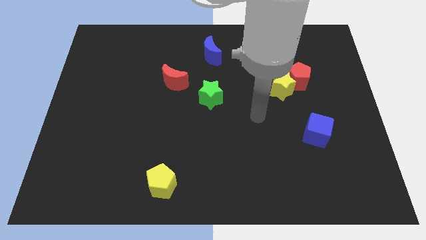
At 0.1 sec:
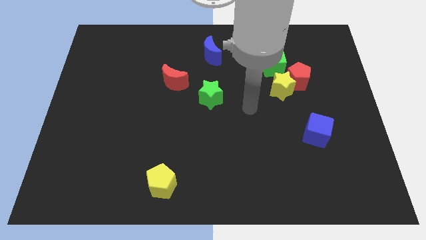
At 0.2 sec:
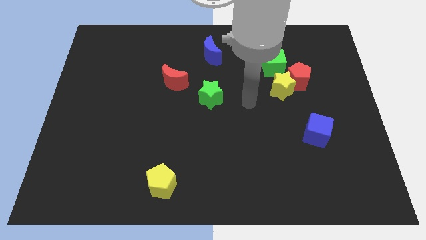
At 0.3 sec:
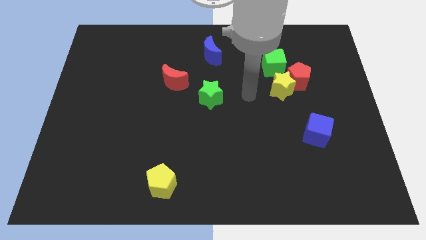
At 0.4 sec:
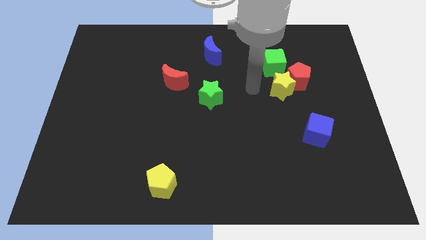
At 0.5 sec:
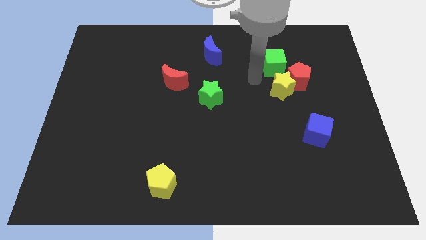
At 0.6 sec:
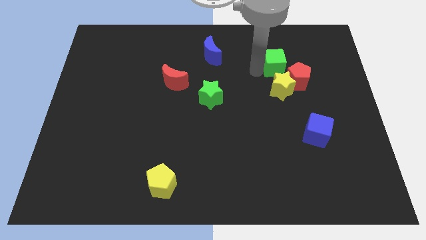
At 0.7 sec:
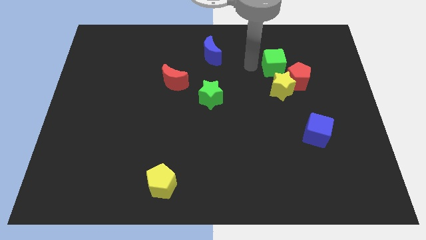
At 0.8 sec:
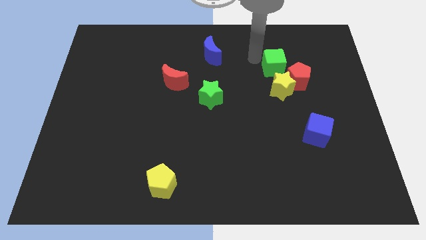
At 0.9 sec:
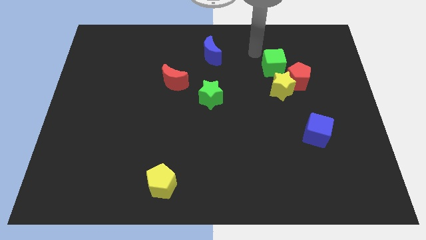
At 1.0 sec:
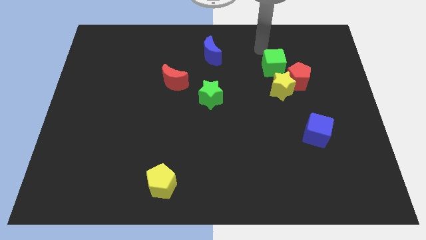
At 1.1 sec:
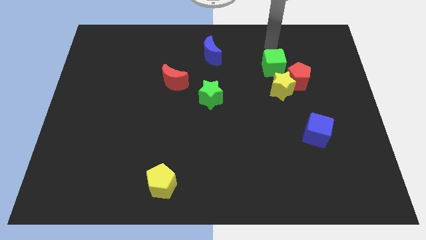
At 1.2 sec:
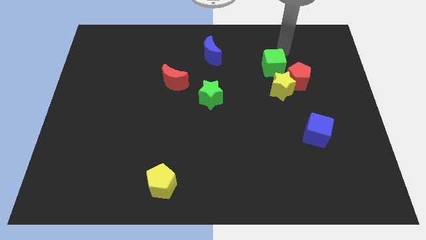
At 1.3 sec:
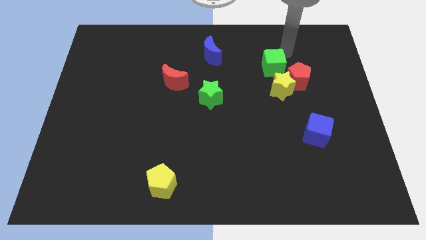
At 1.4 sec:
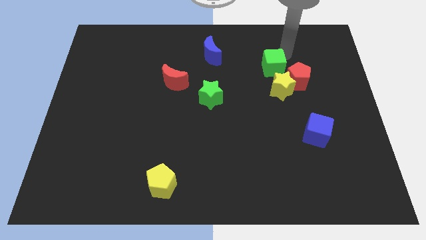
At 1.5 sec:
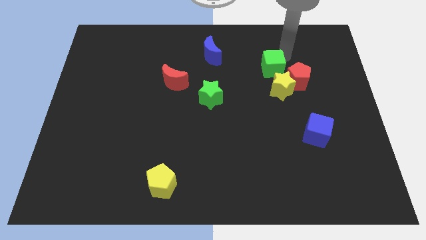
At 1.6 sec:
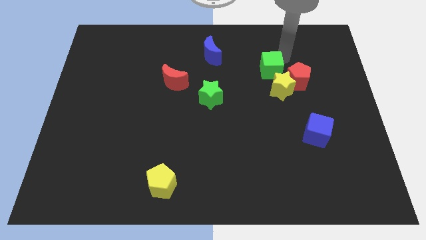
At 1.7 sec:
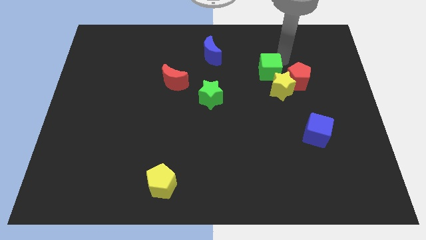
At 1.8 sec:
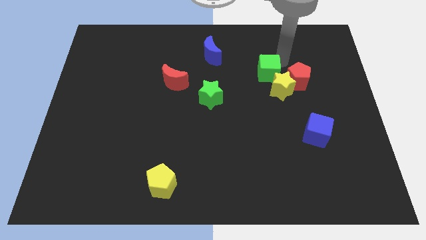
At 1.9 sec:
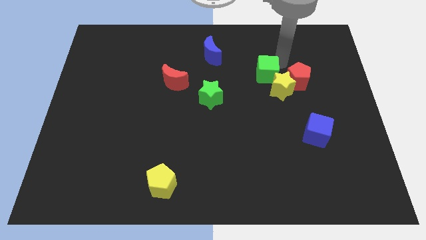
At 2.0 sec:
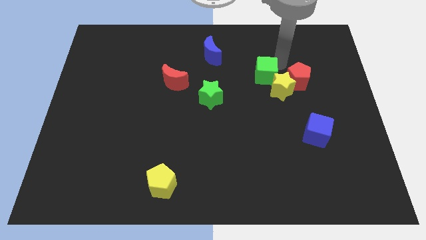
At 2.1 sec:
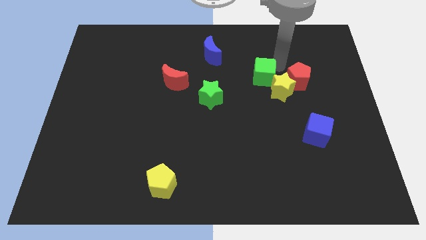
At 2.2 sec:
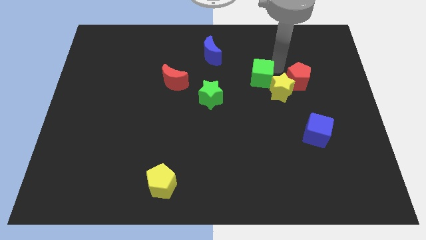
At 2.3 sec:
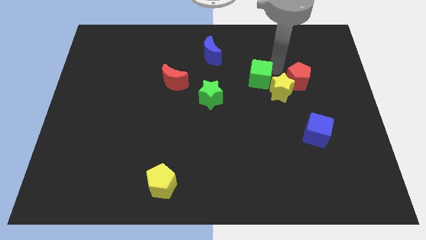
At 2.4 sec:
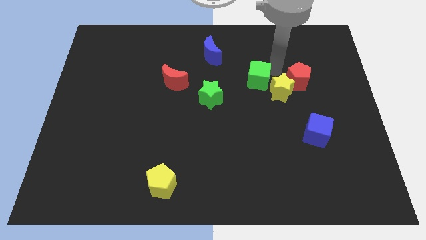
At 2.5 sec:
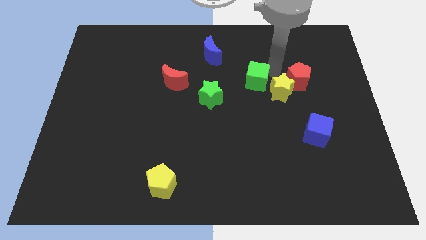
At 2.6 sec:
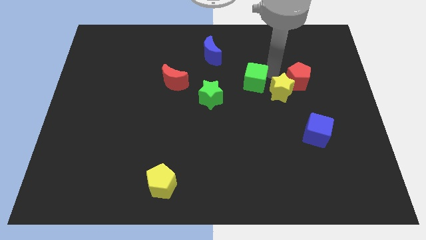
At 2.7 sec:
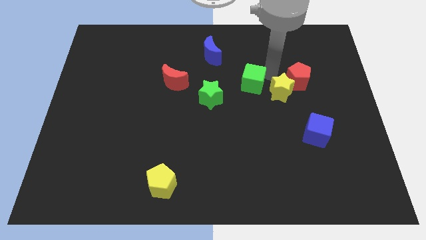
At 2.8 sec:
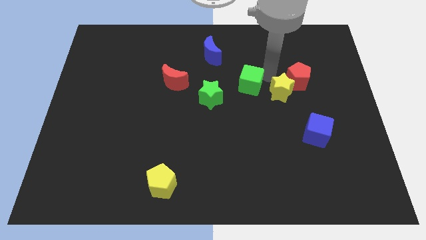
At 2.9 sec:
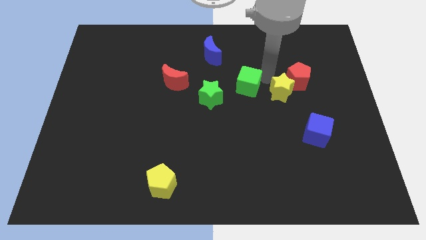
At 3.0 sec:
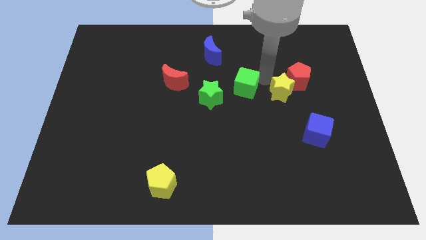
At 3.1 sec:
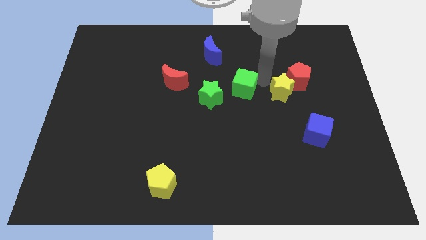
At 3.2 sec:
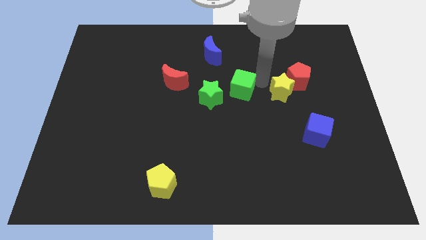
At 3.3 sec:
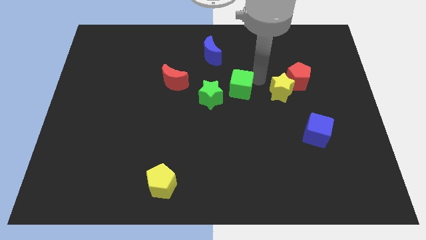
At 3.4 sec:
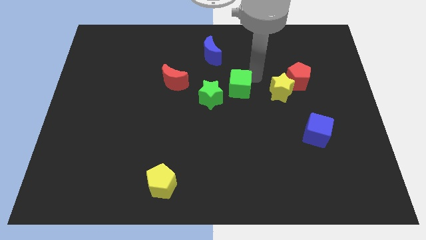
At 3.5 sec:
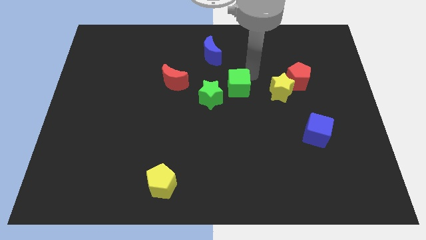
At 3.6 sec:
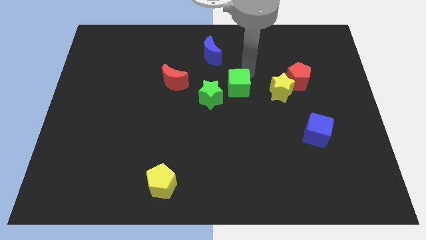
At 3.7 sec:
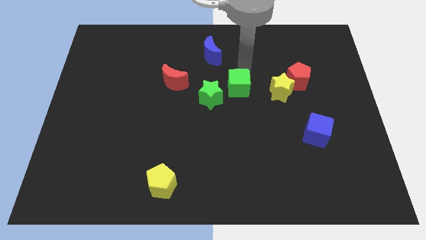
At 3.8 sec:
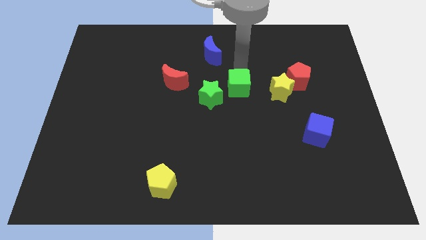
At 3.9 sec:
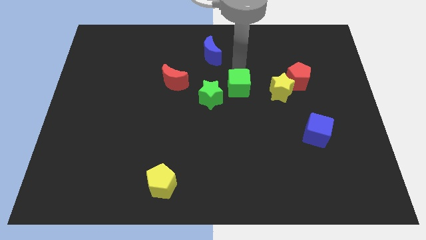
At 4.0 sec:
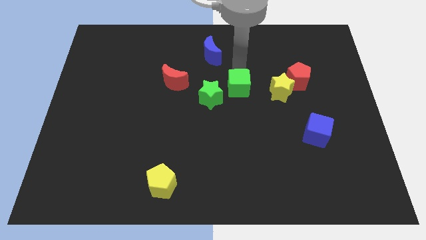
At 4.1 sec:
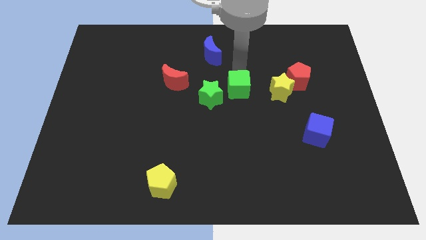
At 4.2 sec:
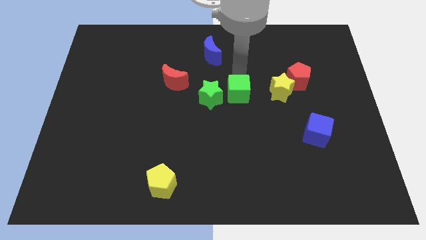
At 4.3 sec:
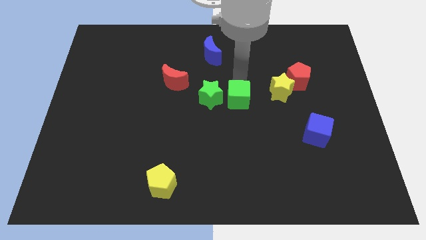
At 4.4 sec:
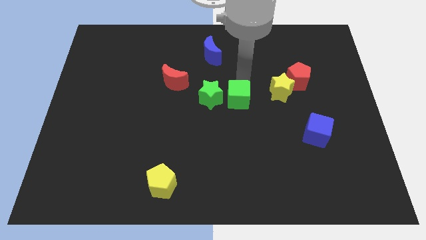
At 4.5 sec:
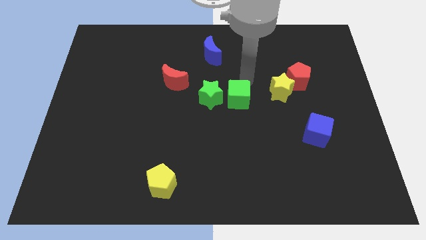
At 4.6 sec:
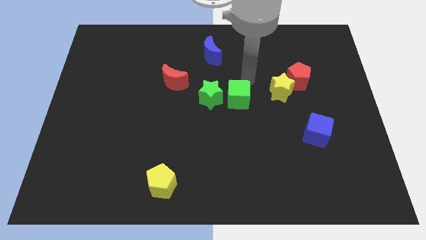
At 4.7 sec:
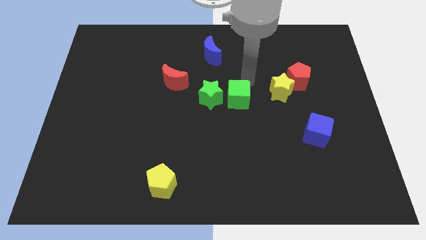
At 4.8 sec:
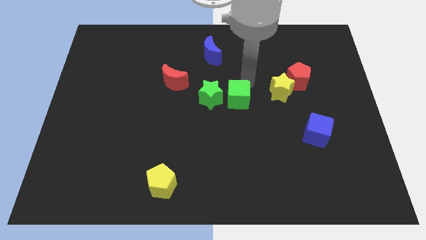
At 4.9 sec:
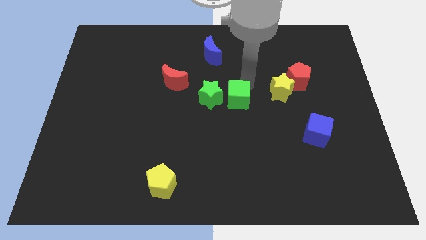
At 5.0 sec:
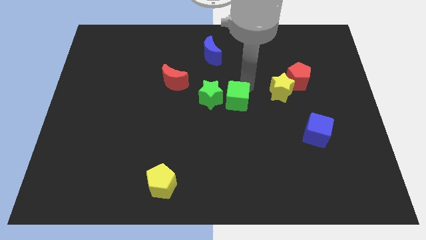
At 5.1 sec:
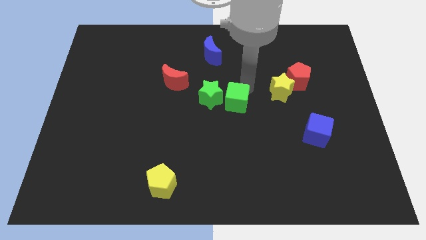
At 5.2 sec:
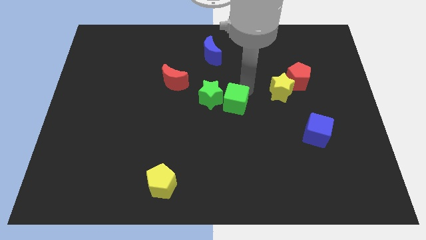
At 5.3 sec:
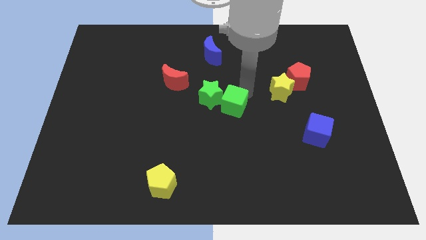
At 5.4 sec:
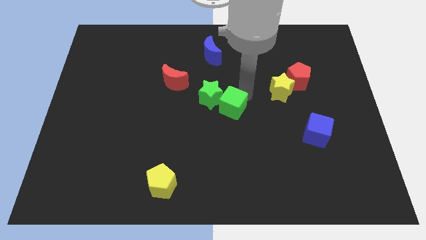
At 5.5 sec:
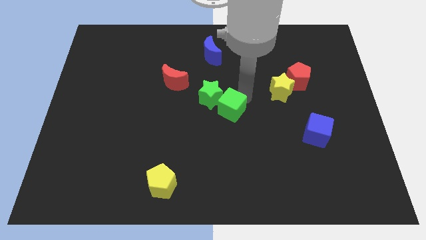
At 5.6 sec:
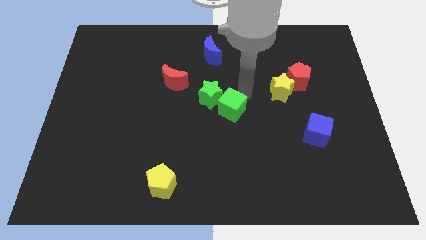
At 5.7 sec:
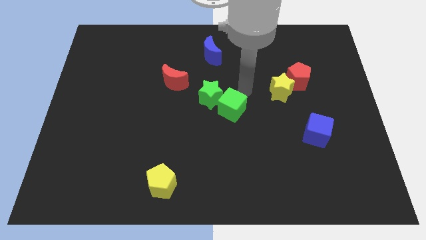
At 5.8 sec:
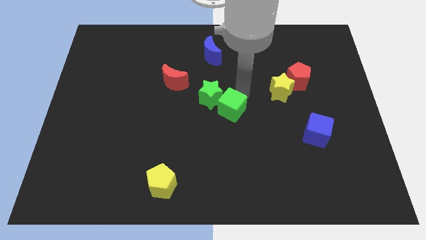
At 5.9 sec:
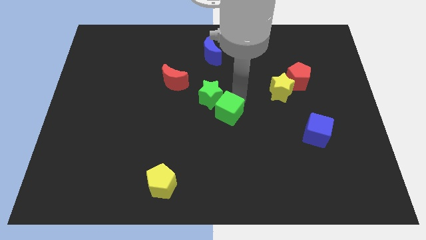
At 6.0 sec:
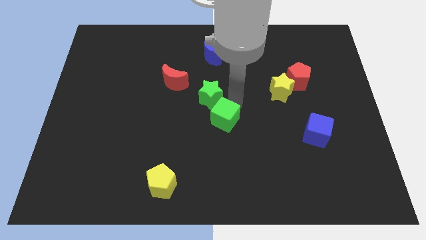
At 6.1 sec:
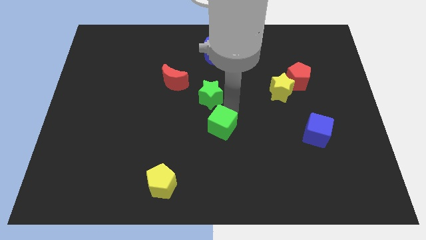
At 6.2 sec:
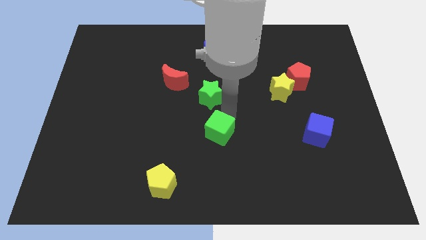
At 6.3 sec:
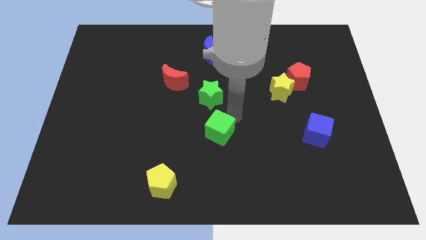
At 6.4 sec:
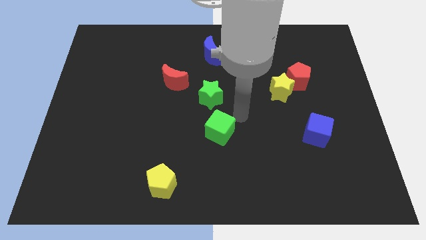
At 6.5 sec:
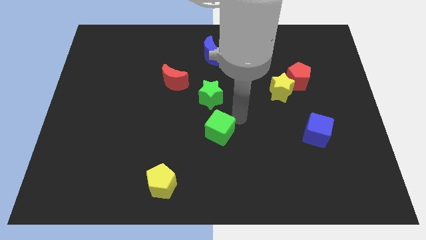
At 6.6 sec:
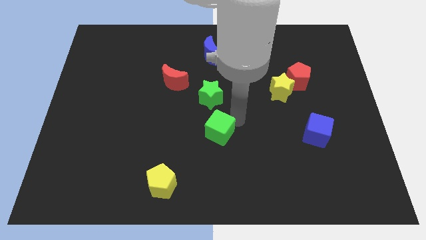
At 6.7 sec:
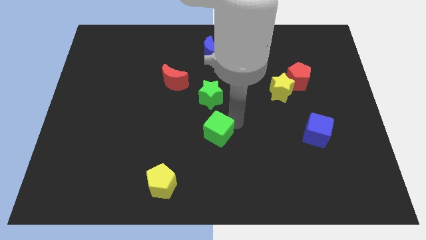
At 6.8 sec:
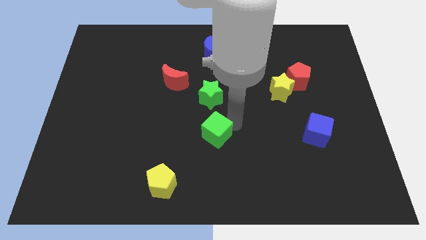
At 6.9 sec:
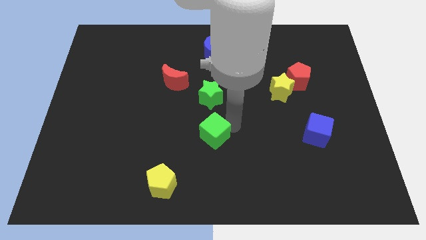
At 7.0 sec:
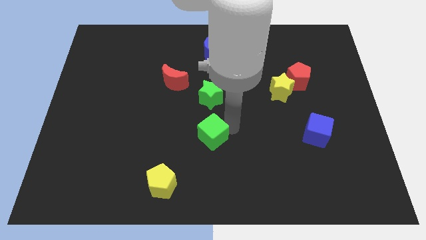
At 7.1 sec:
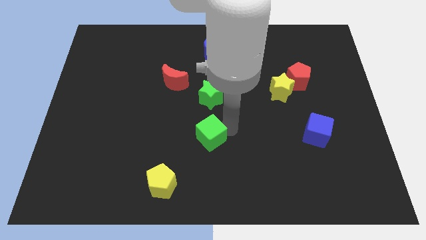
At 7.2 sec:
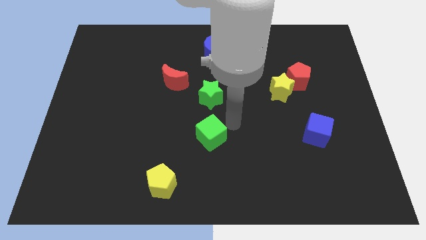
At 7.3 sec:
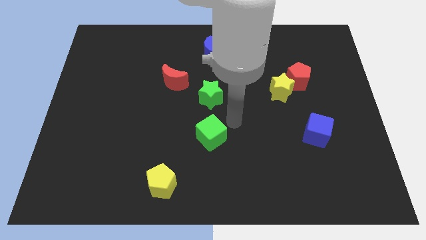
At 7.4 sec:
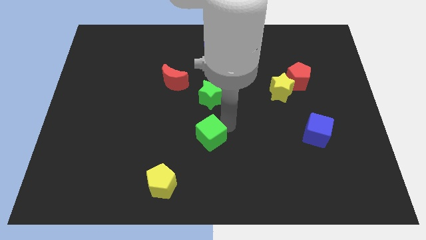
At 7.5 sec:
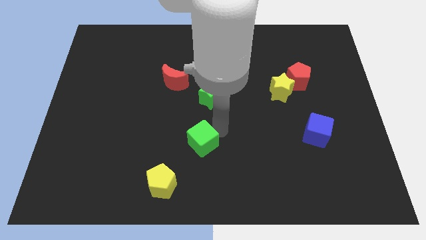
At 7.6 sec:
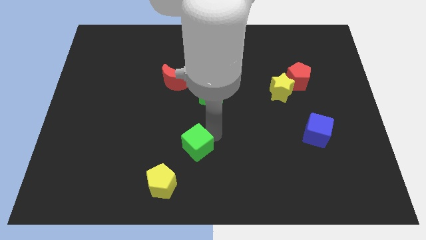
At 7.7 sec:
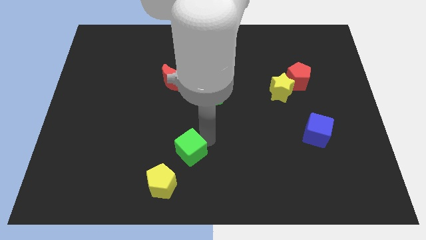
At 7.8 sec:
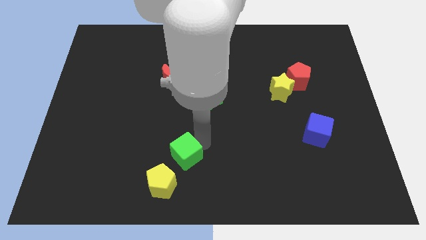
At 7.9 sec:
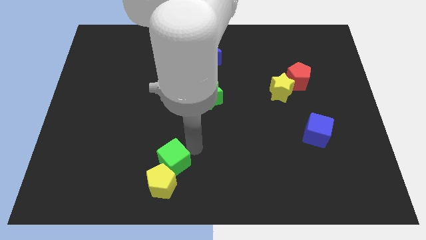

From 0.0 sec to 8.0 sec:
slide the green cube towards the yellow pentagon
